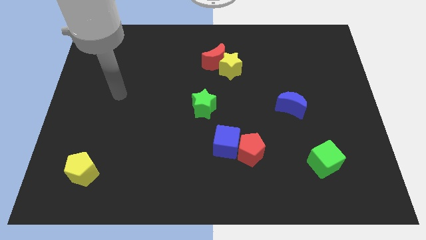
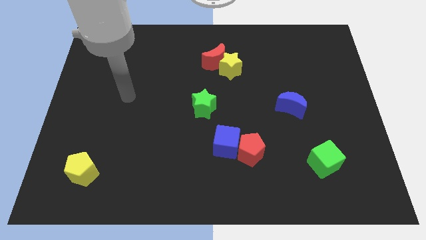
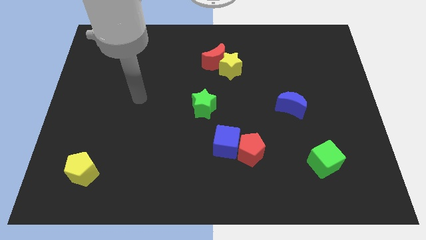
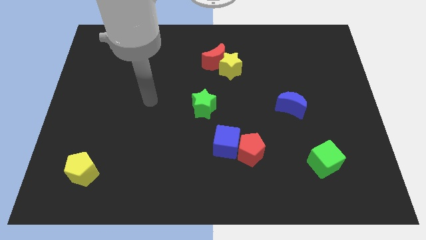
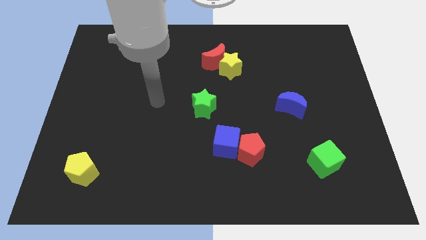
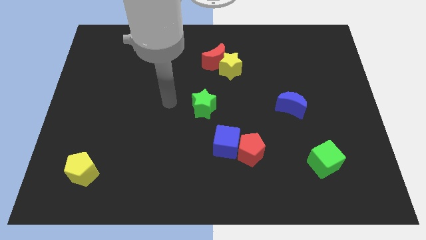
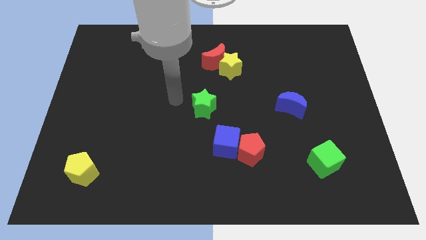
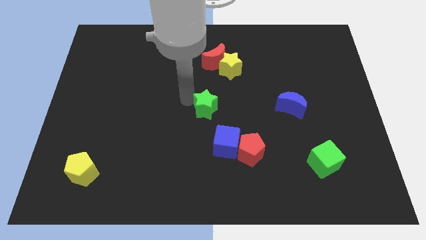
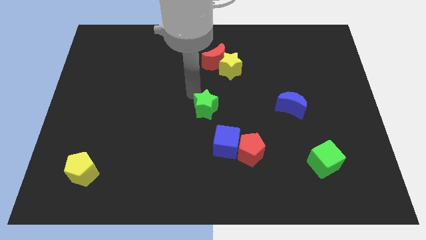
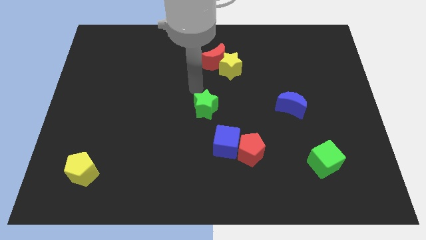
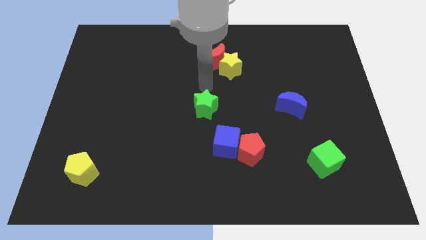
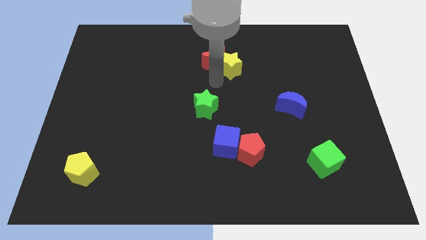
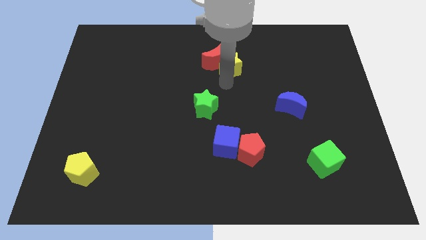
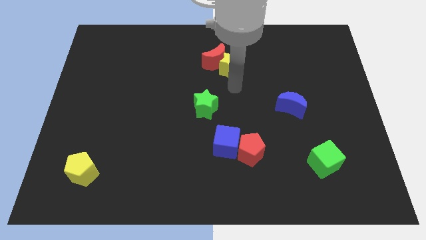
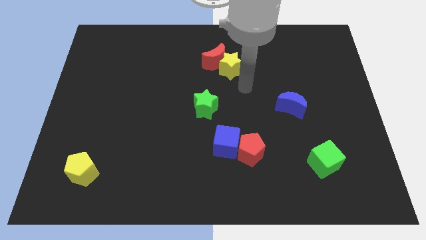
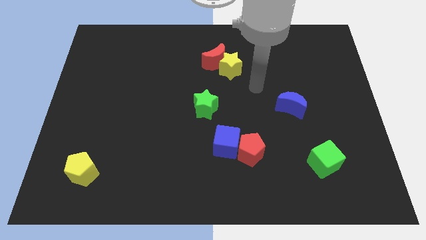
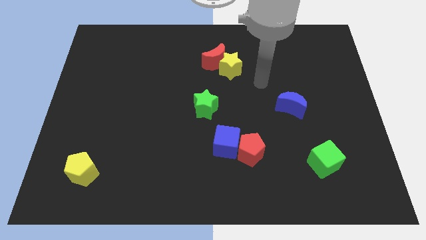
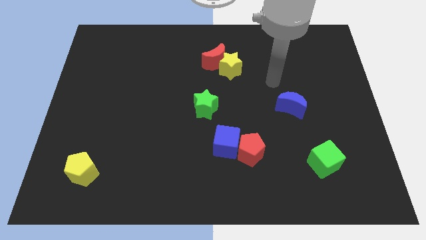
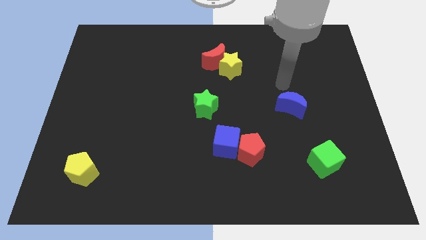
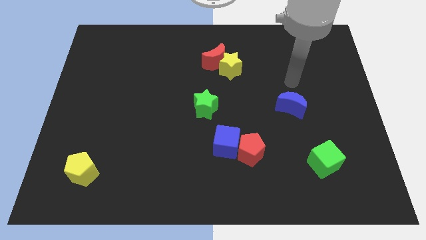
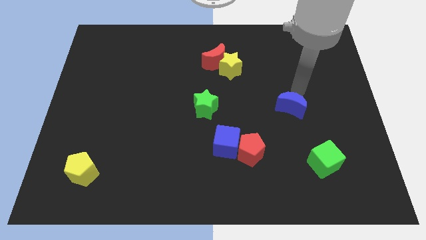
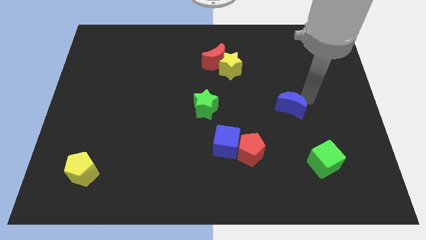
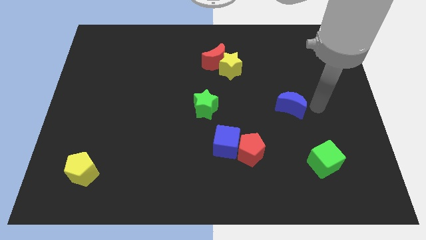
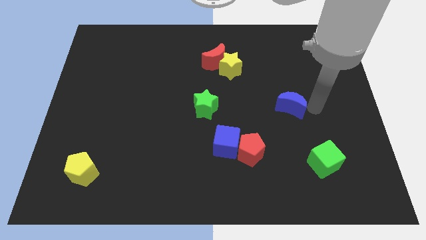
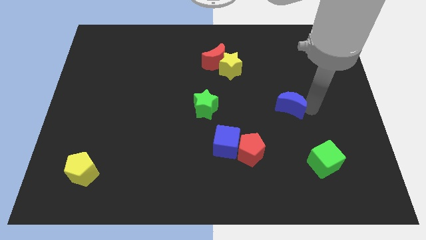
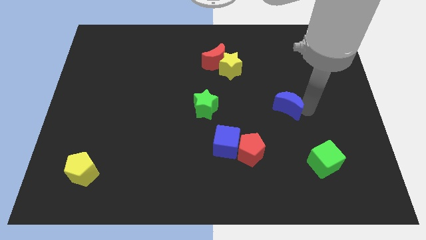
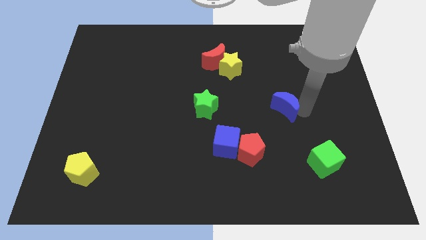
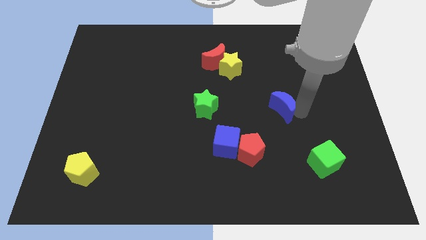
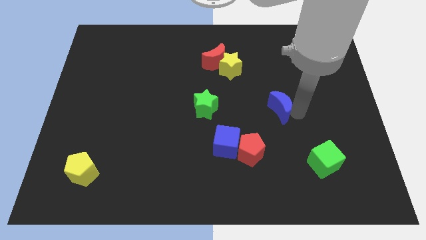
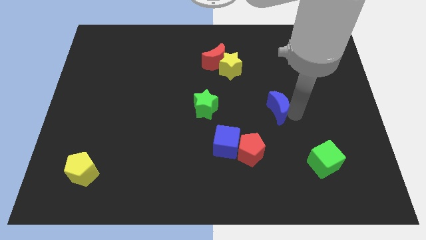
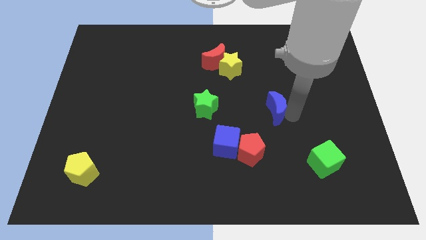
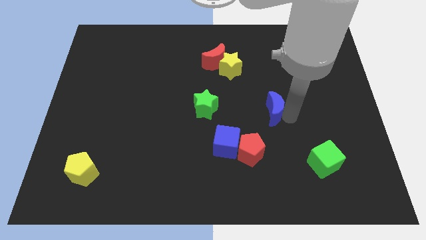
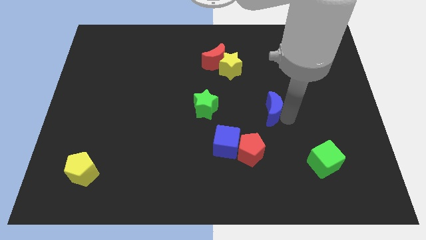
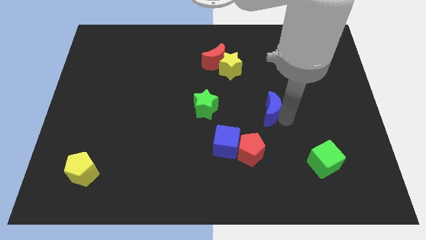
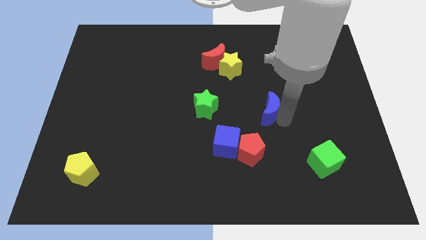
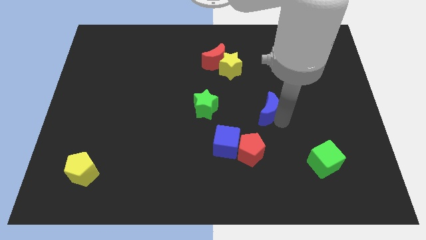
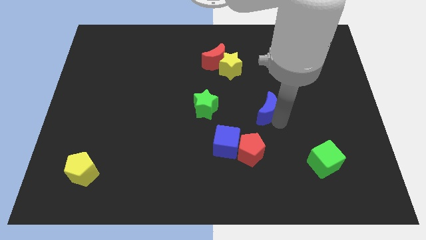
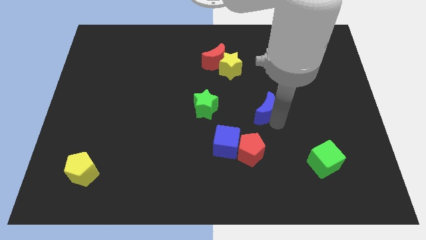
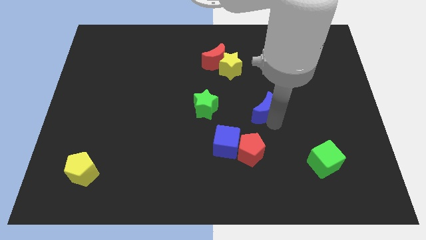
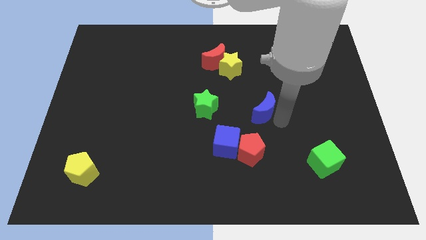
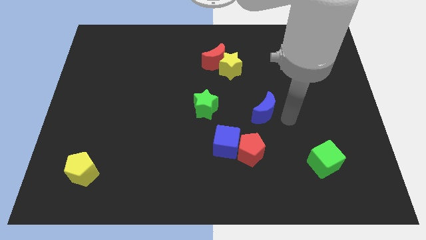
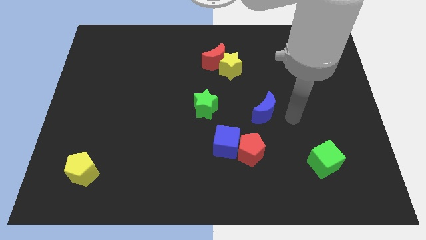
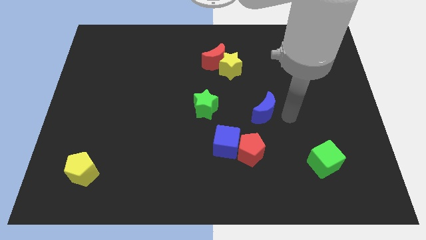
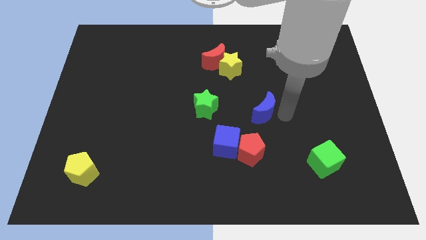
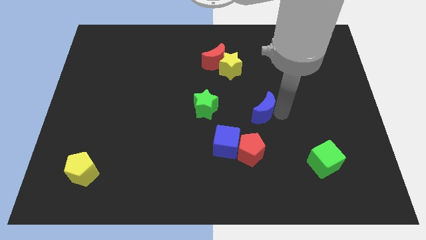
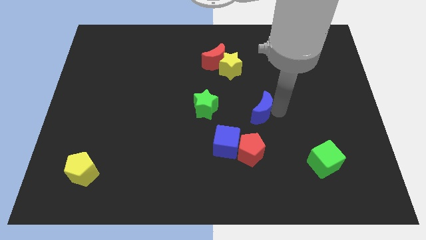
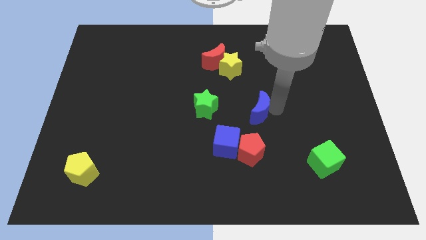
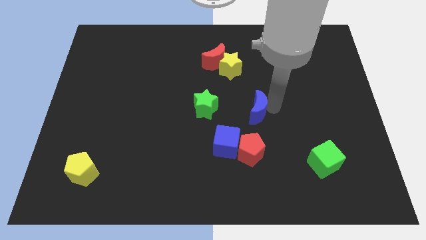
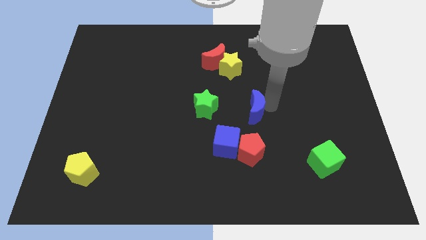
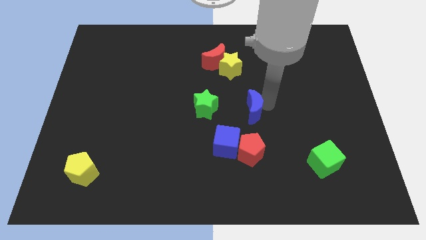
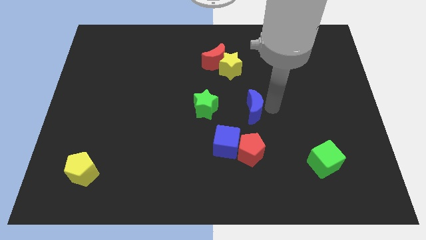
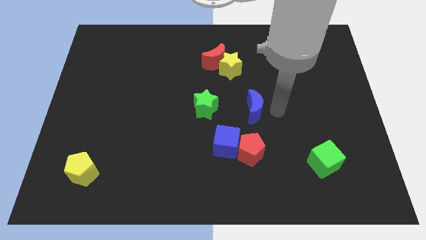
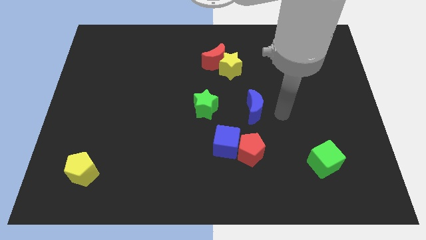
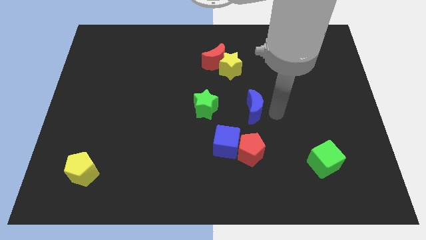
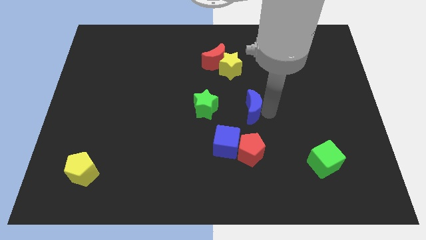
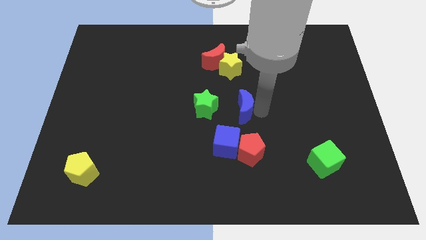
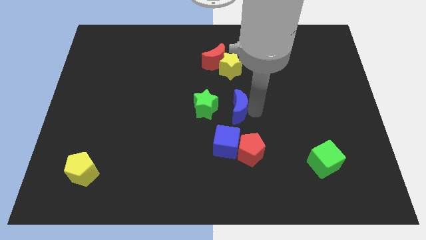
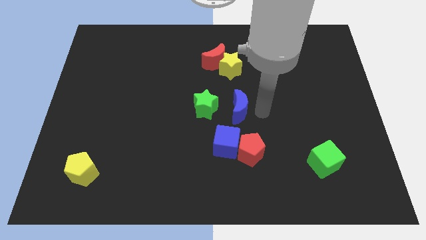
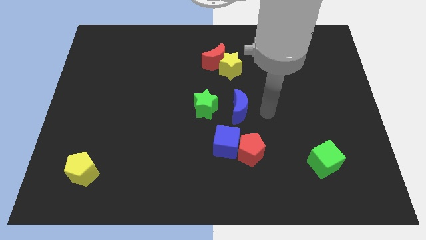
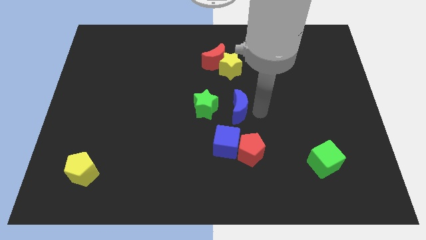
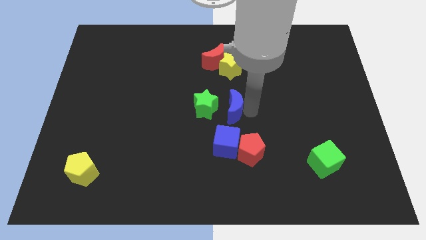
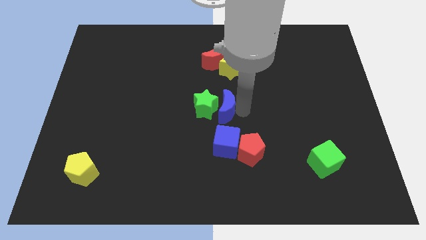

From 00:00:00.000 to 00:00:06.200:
put the blue moon close to the green star
